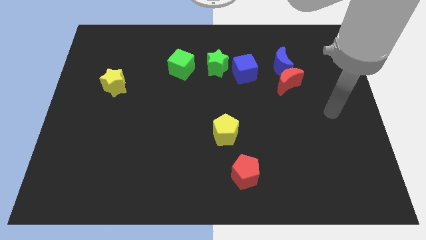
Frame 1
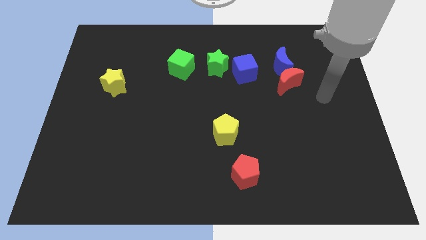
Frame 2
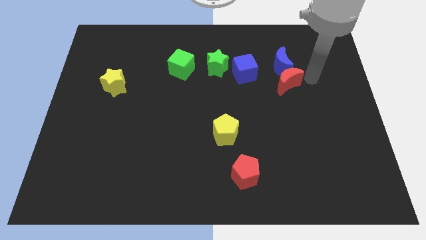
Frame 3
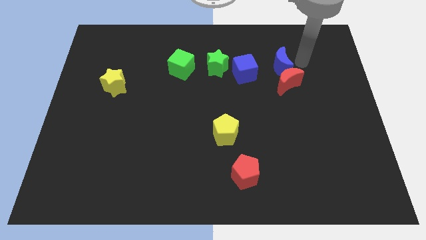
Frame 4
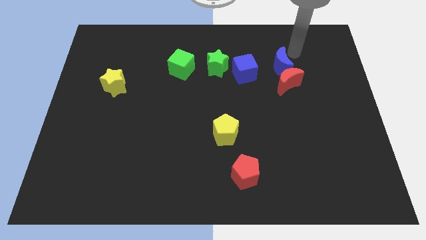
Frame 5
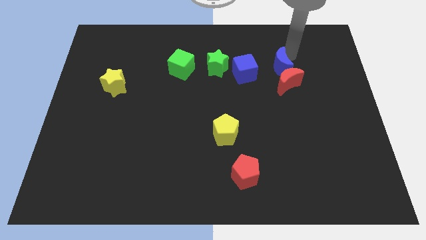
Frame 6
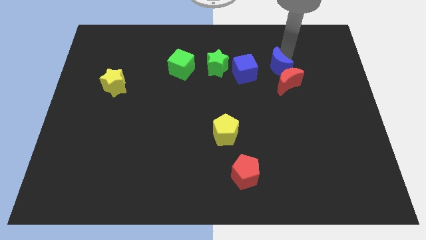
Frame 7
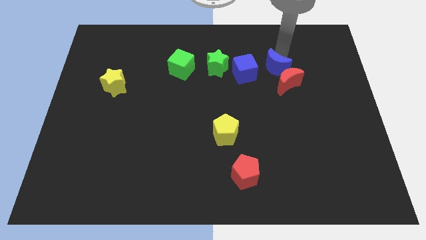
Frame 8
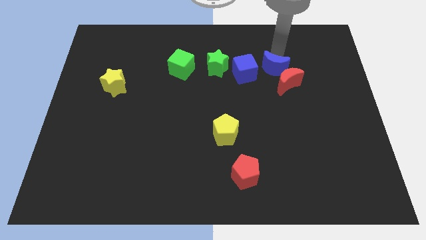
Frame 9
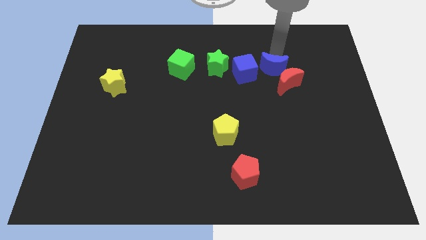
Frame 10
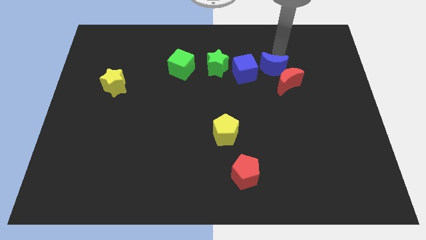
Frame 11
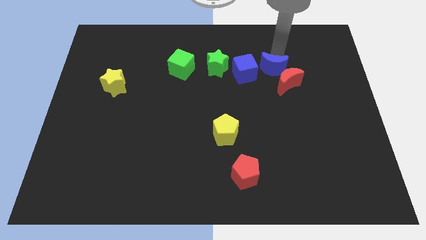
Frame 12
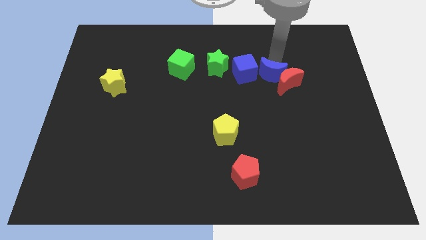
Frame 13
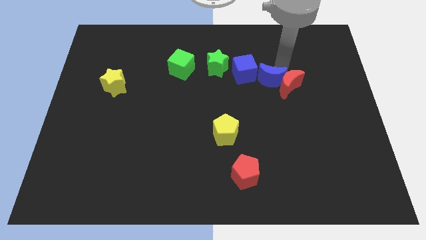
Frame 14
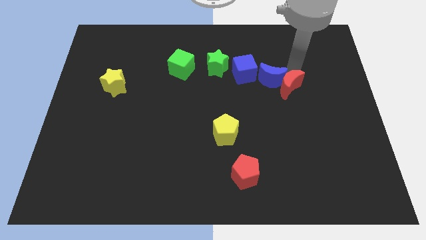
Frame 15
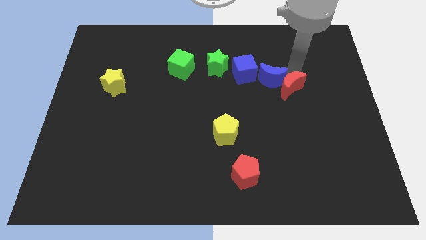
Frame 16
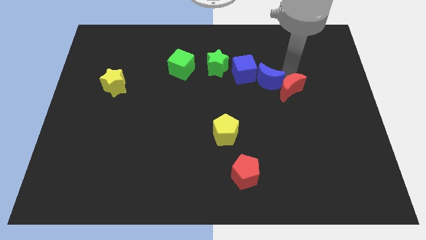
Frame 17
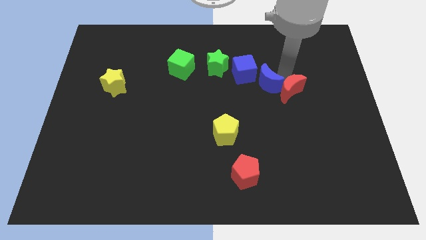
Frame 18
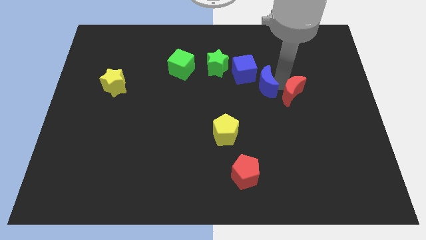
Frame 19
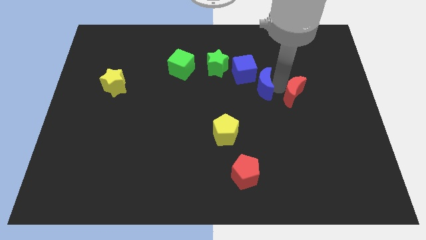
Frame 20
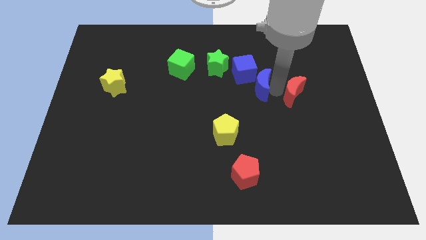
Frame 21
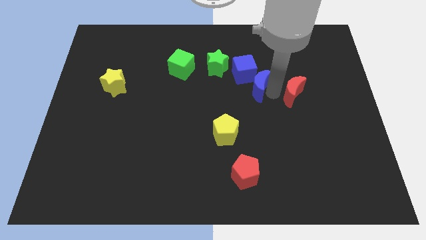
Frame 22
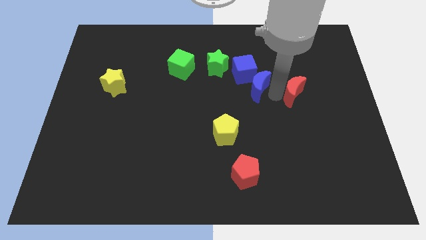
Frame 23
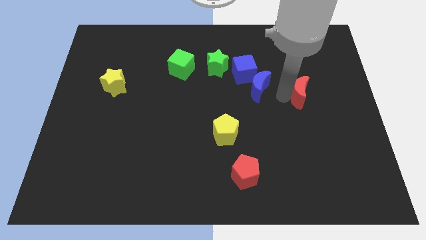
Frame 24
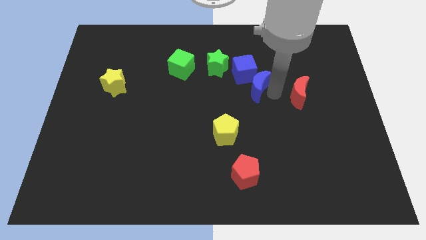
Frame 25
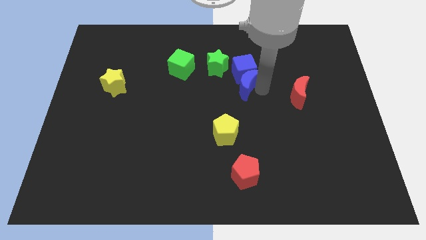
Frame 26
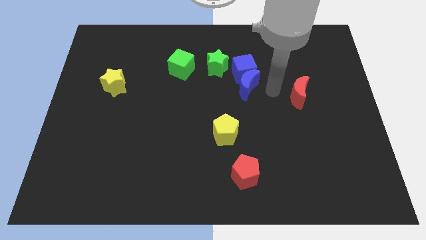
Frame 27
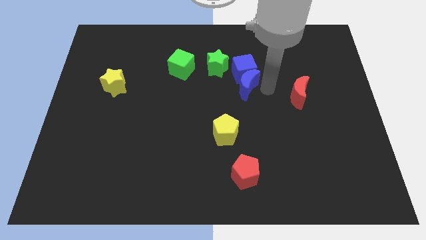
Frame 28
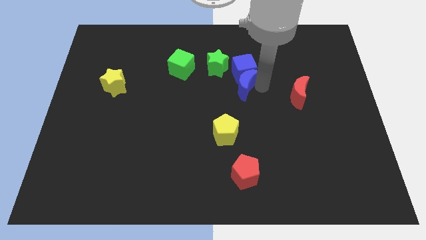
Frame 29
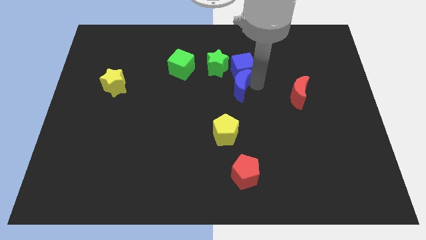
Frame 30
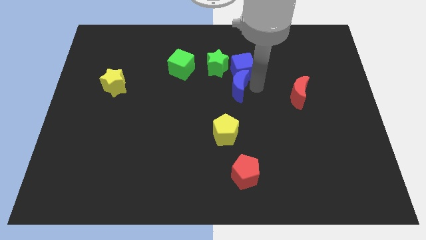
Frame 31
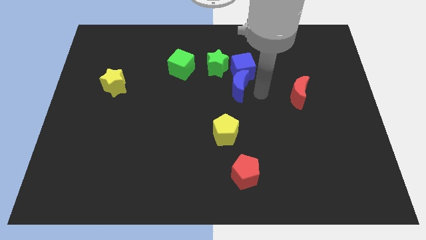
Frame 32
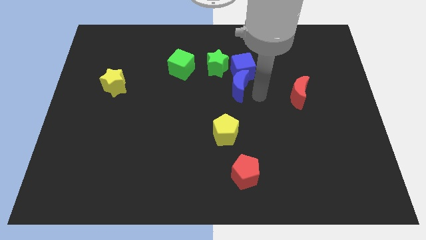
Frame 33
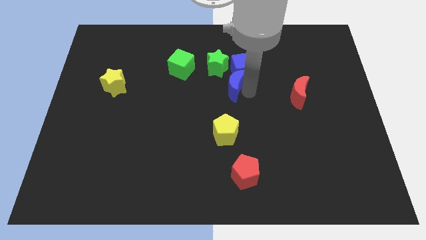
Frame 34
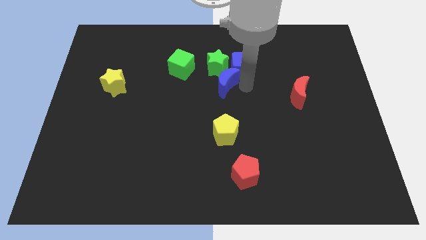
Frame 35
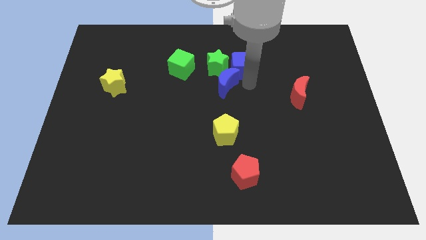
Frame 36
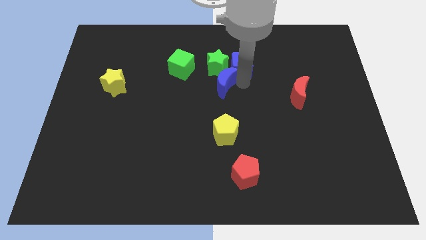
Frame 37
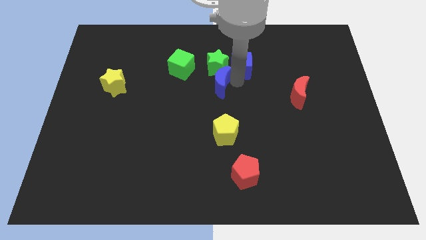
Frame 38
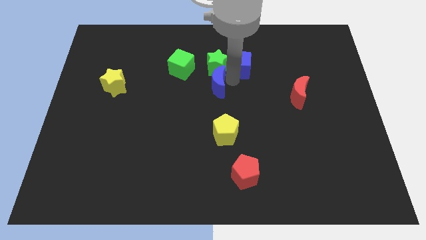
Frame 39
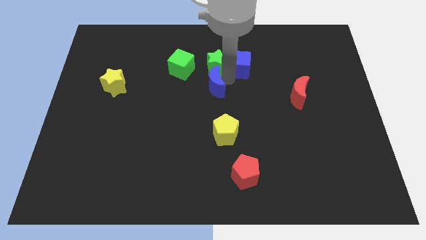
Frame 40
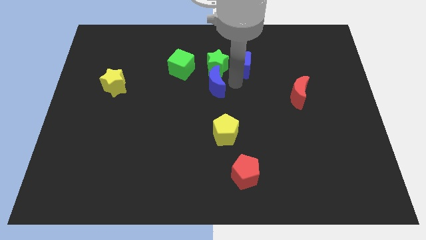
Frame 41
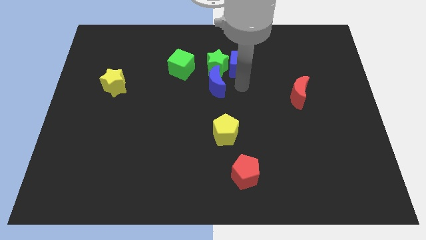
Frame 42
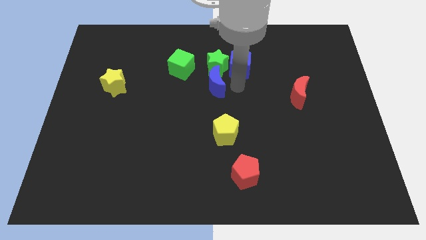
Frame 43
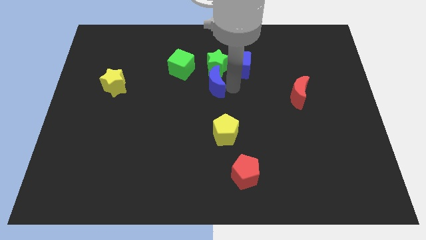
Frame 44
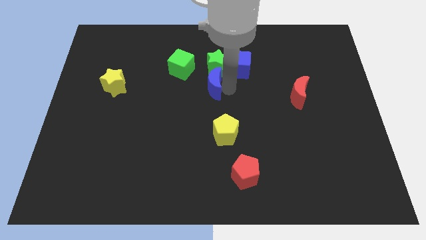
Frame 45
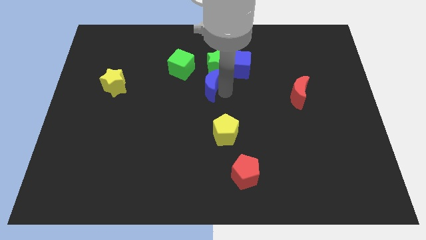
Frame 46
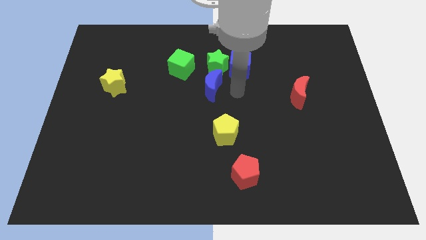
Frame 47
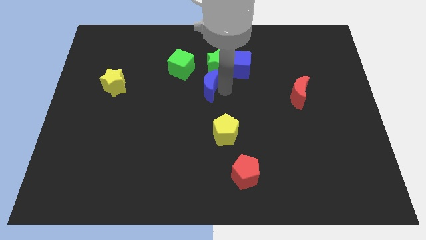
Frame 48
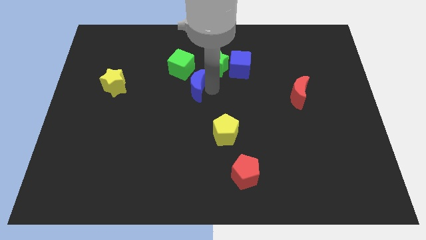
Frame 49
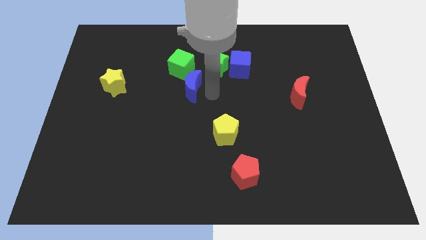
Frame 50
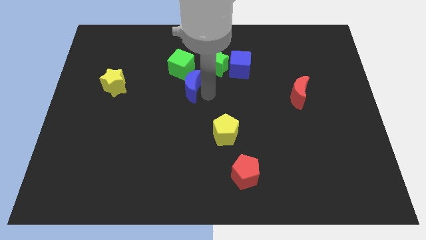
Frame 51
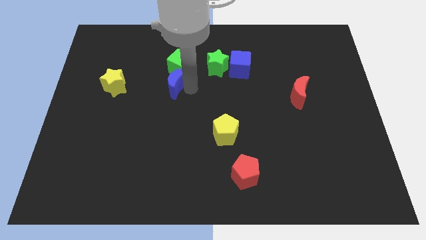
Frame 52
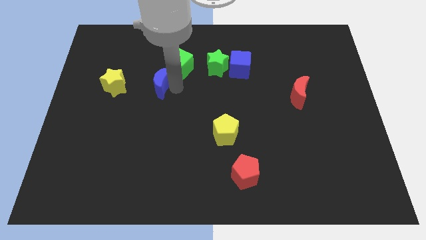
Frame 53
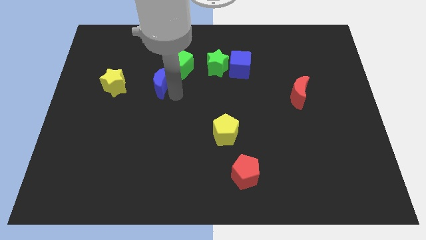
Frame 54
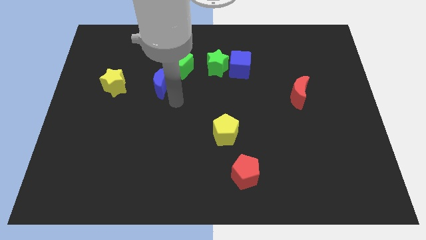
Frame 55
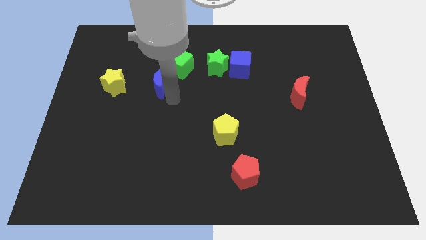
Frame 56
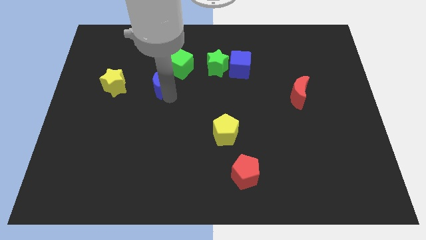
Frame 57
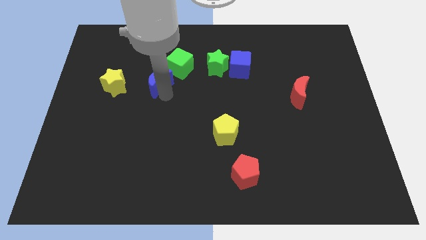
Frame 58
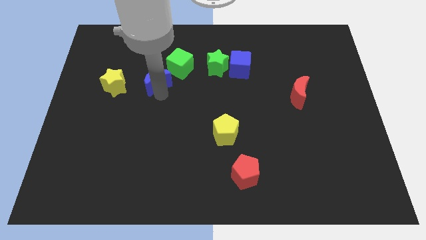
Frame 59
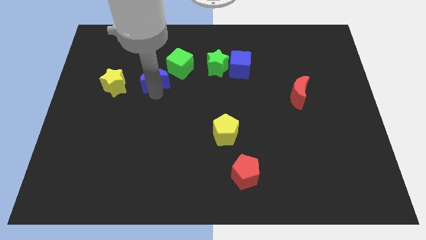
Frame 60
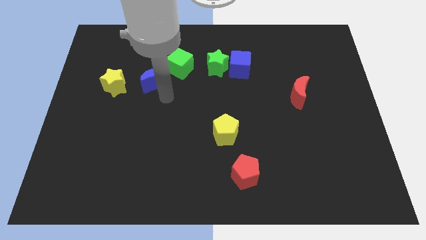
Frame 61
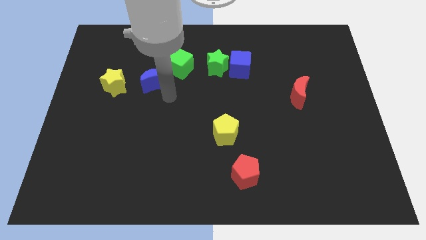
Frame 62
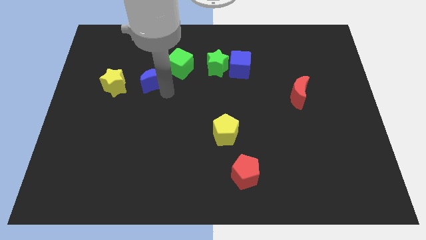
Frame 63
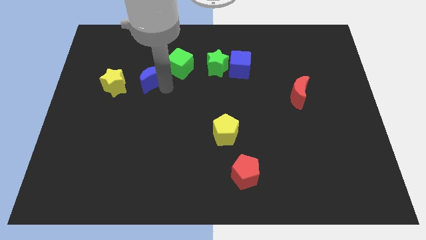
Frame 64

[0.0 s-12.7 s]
put the blue moon to the left side of the green cube

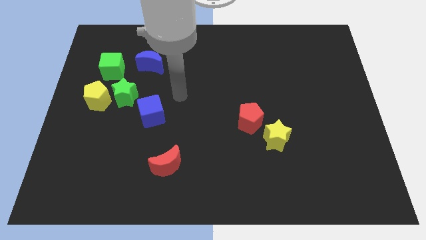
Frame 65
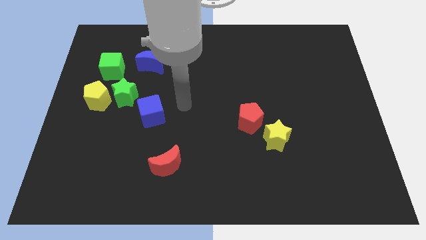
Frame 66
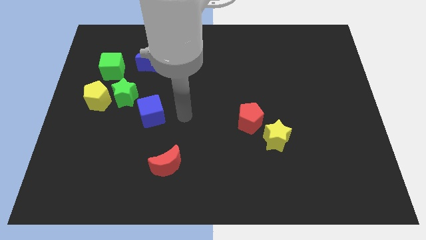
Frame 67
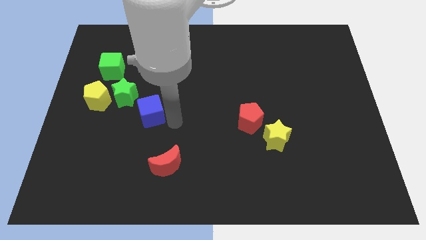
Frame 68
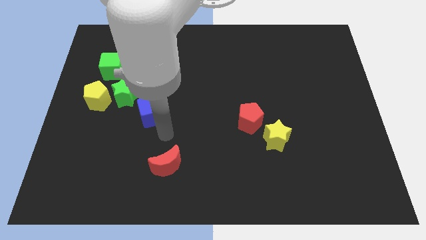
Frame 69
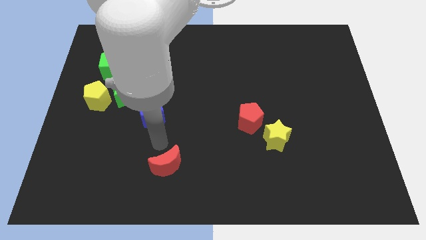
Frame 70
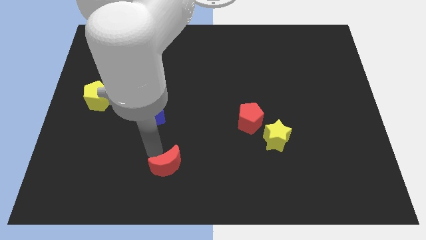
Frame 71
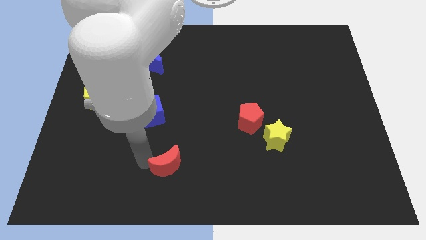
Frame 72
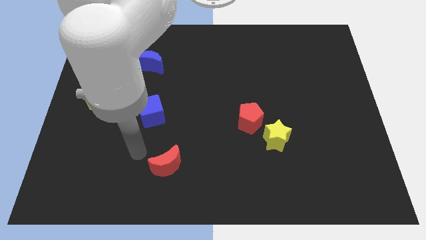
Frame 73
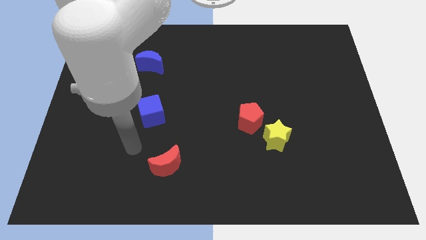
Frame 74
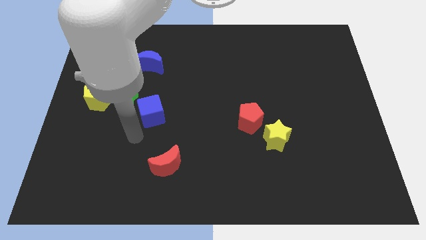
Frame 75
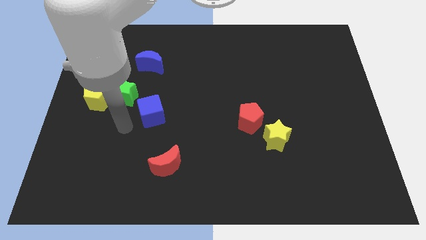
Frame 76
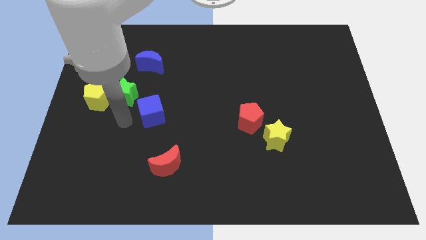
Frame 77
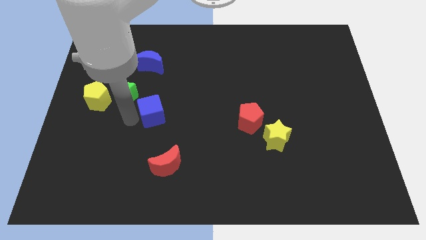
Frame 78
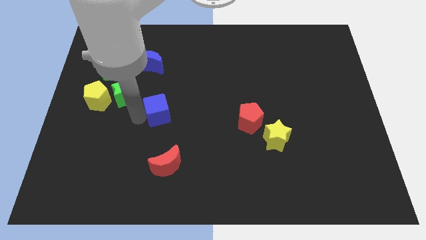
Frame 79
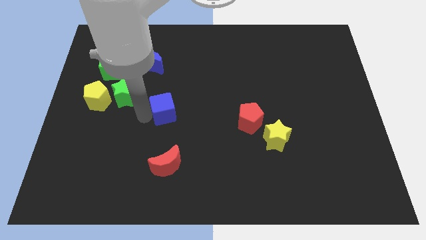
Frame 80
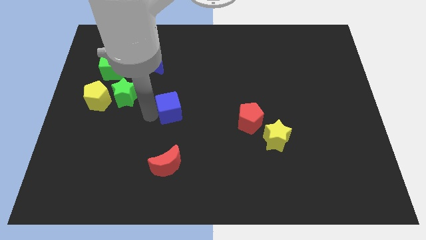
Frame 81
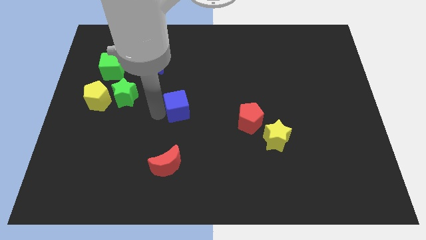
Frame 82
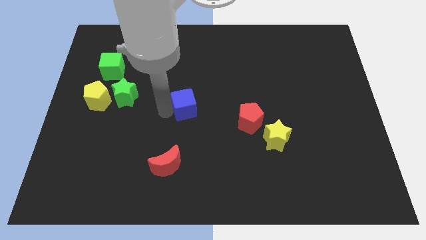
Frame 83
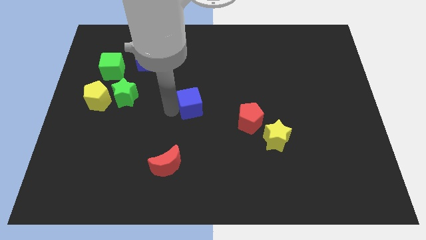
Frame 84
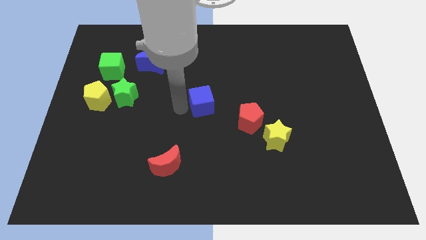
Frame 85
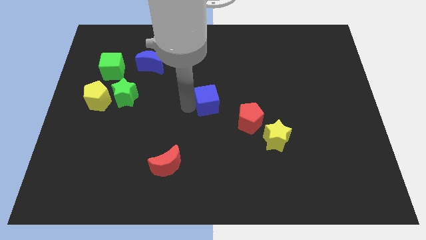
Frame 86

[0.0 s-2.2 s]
push the blue cube to the top left side of the red pentagon
